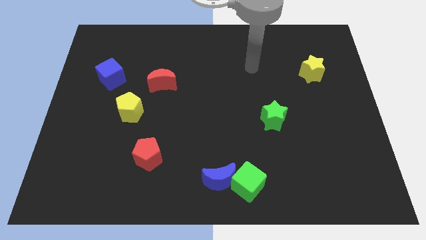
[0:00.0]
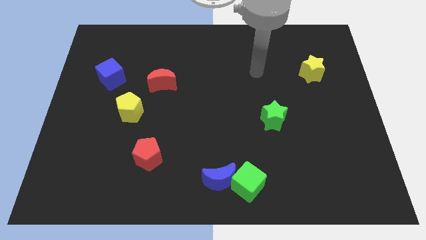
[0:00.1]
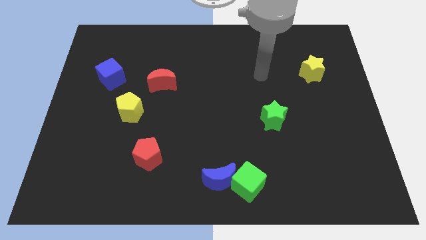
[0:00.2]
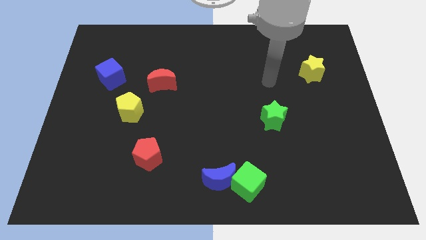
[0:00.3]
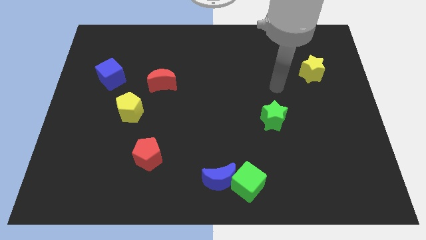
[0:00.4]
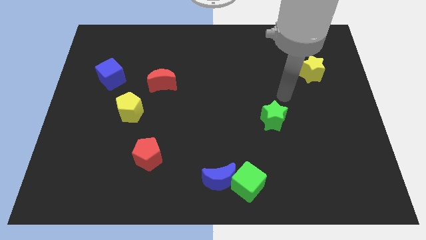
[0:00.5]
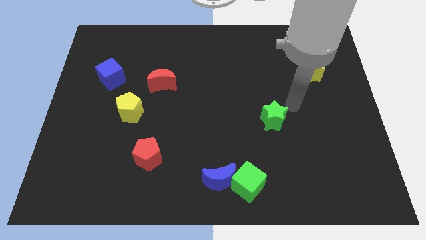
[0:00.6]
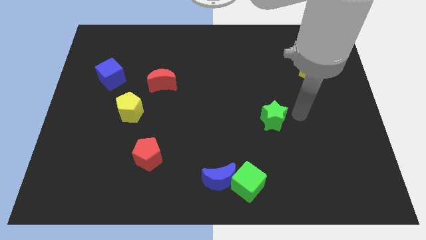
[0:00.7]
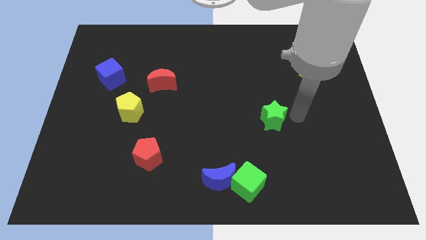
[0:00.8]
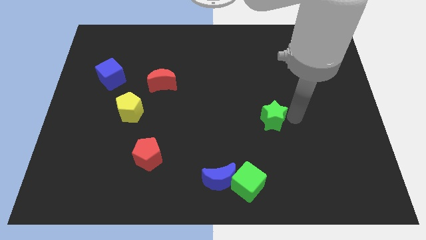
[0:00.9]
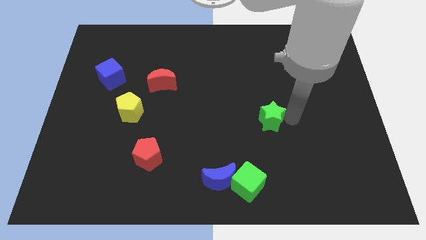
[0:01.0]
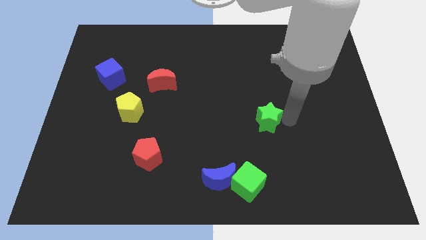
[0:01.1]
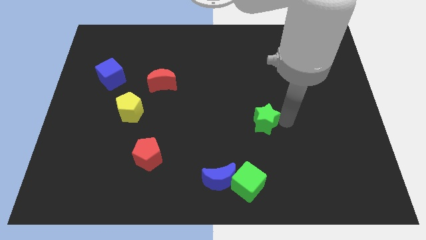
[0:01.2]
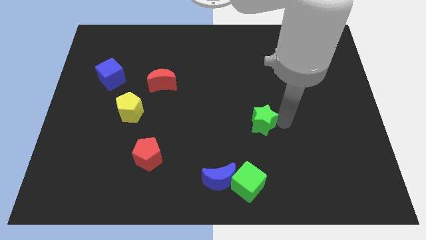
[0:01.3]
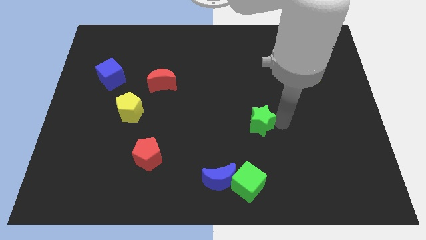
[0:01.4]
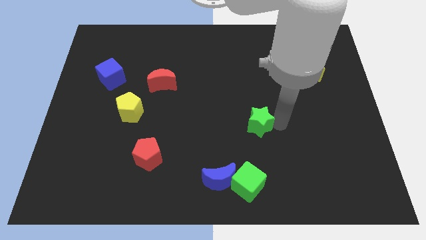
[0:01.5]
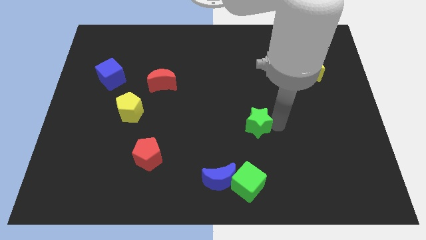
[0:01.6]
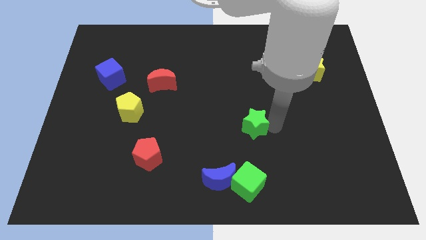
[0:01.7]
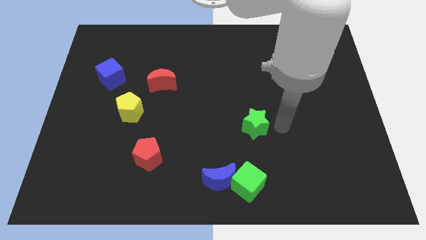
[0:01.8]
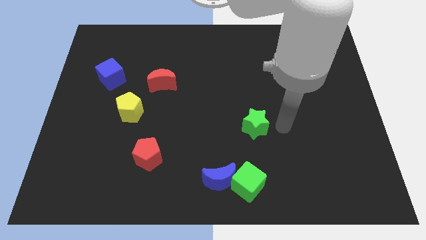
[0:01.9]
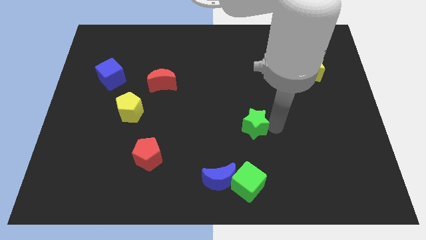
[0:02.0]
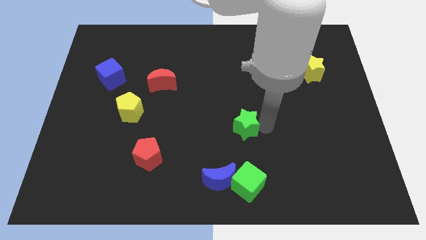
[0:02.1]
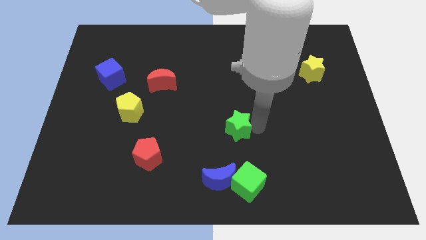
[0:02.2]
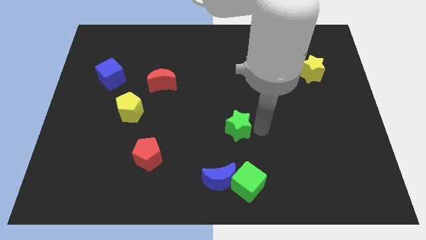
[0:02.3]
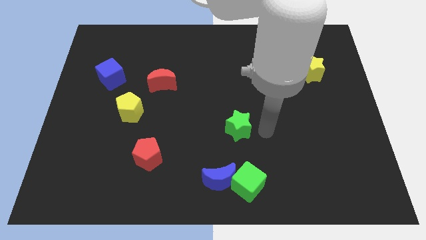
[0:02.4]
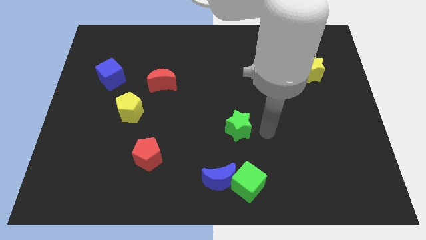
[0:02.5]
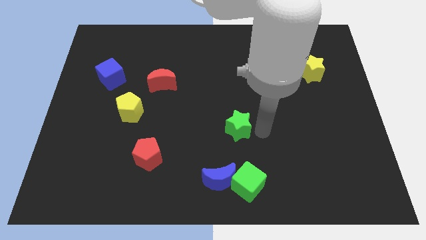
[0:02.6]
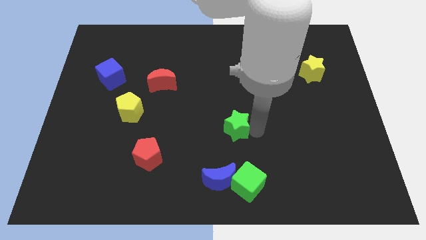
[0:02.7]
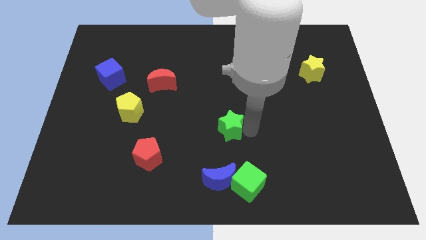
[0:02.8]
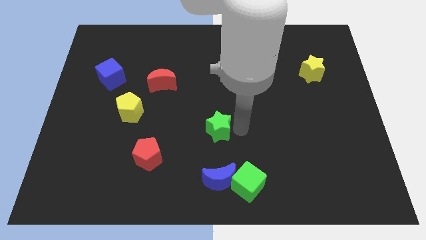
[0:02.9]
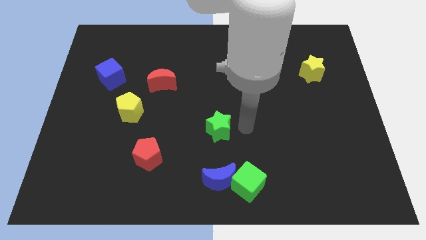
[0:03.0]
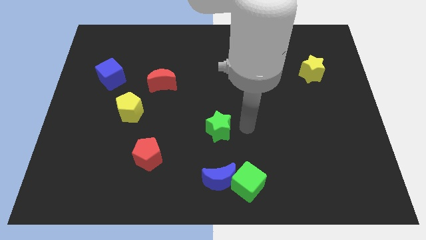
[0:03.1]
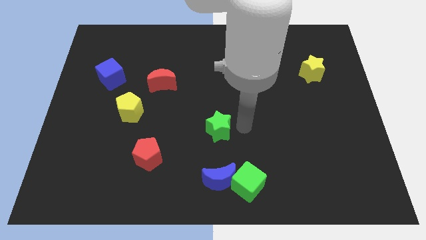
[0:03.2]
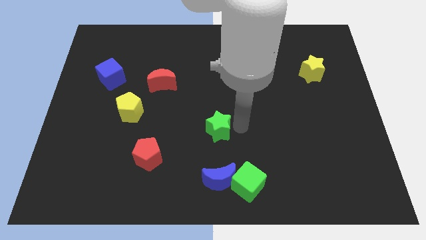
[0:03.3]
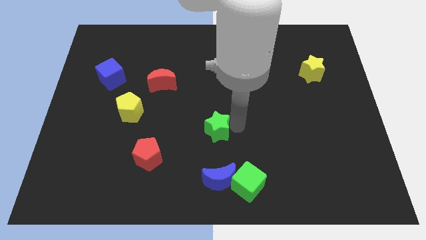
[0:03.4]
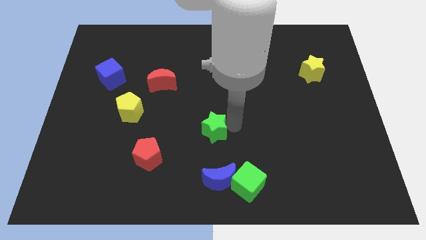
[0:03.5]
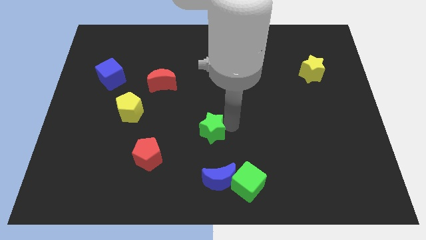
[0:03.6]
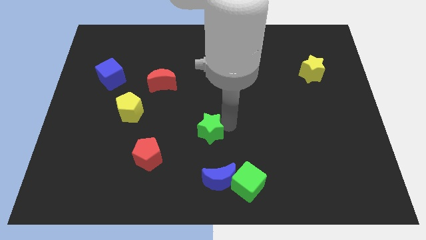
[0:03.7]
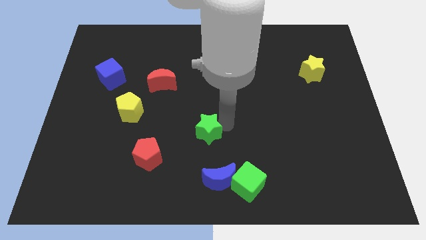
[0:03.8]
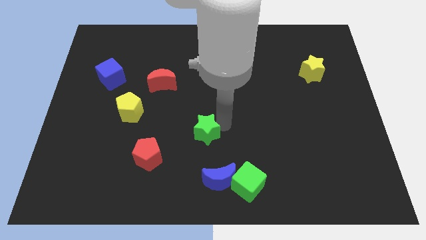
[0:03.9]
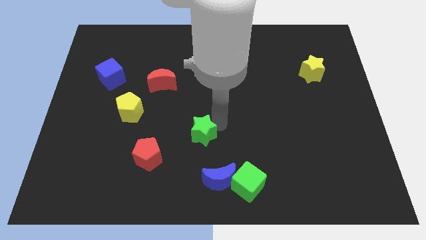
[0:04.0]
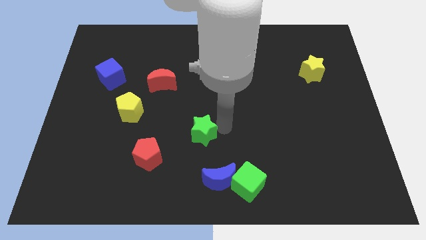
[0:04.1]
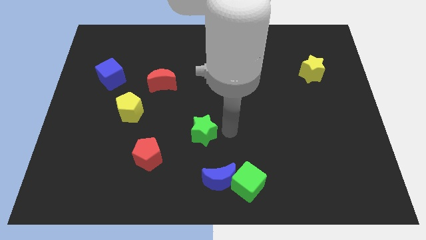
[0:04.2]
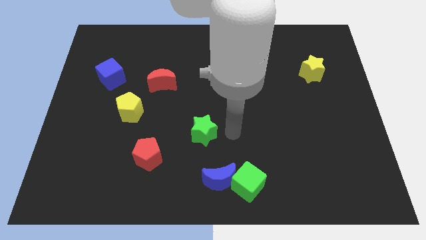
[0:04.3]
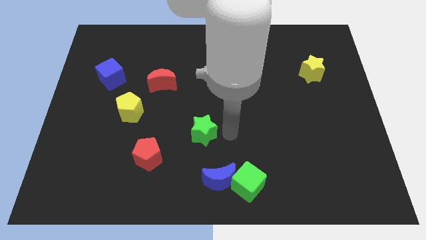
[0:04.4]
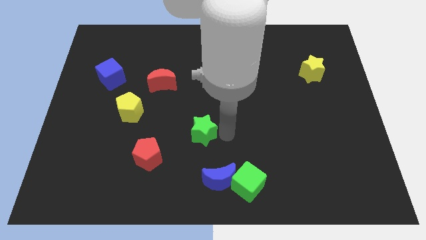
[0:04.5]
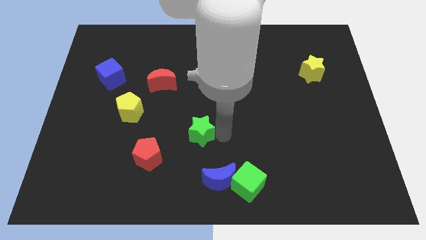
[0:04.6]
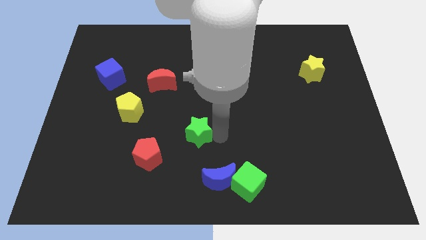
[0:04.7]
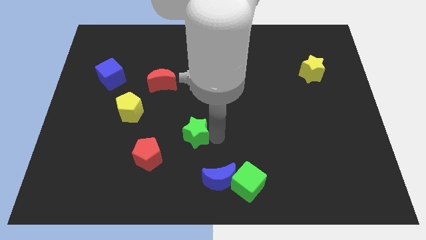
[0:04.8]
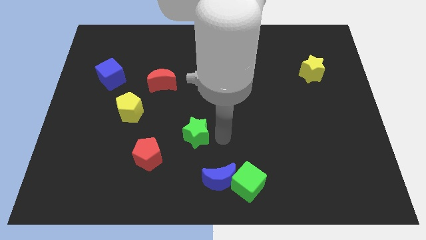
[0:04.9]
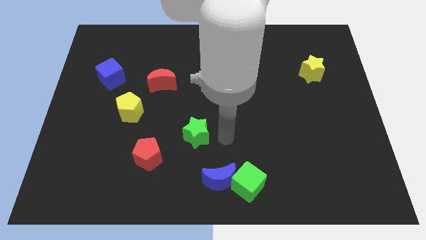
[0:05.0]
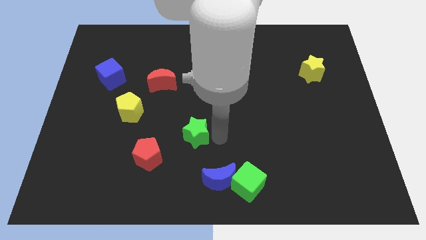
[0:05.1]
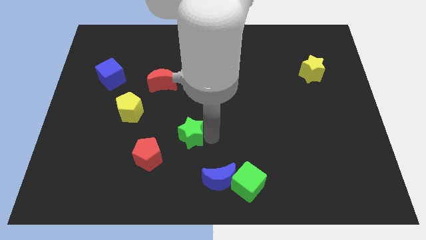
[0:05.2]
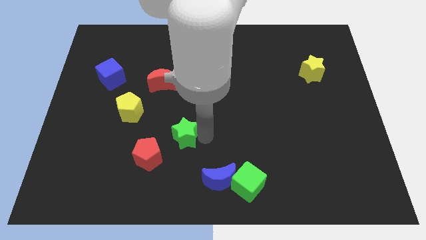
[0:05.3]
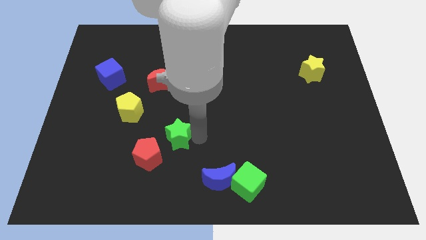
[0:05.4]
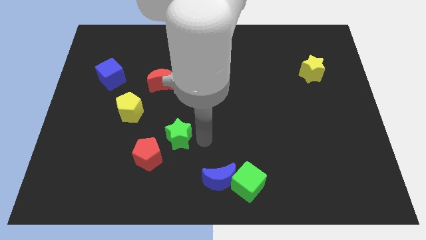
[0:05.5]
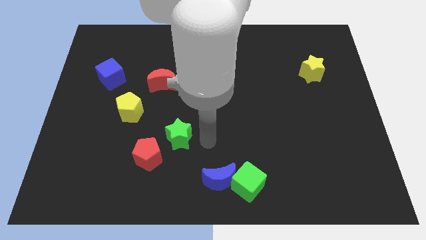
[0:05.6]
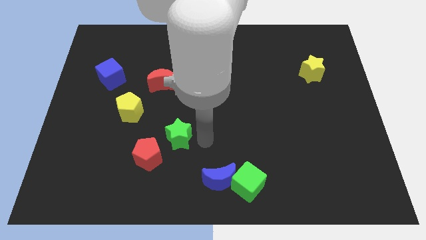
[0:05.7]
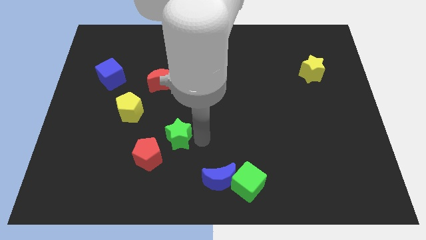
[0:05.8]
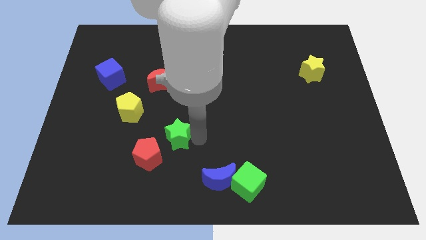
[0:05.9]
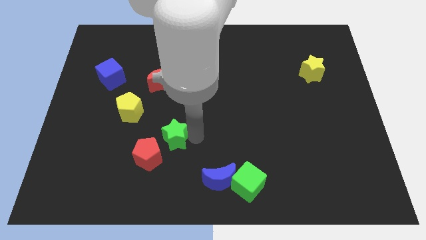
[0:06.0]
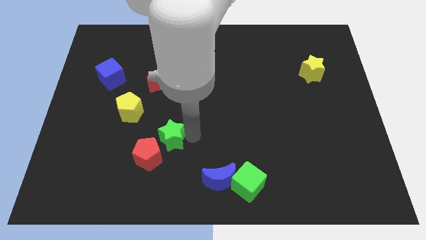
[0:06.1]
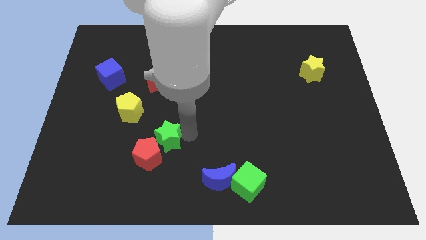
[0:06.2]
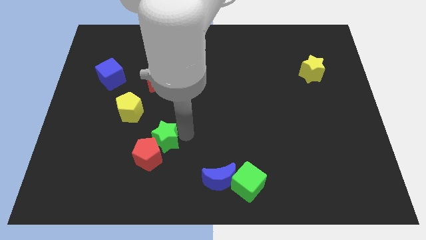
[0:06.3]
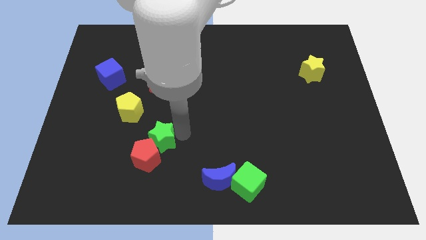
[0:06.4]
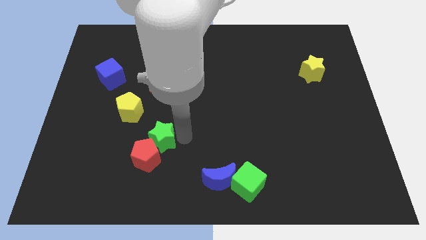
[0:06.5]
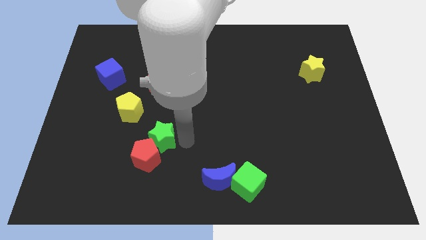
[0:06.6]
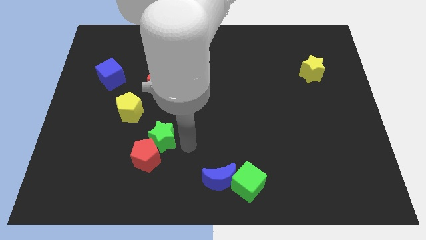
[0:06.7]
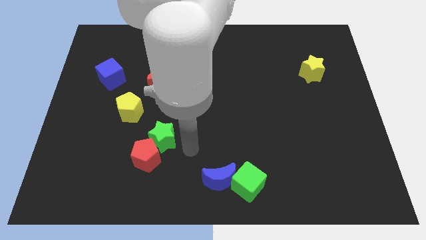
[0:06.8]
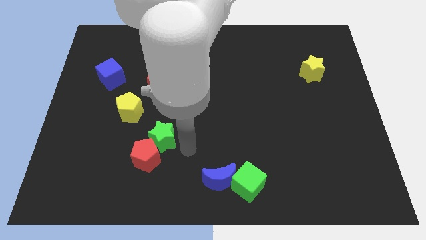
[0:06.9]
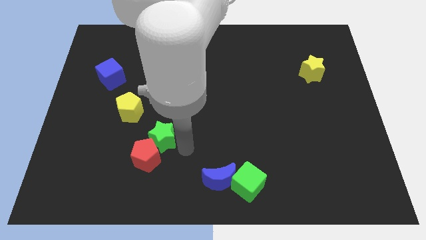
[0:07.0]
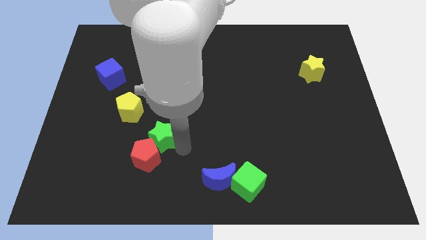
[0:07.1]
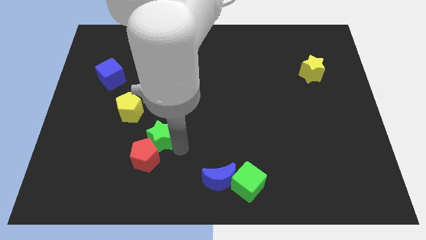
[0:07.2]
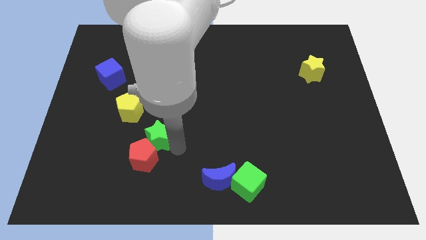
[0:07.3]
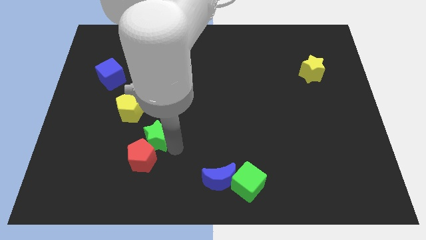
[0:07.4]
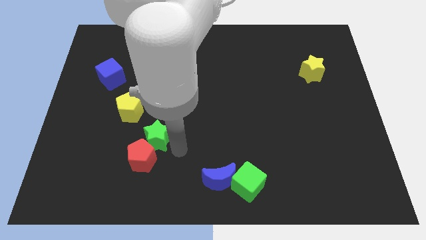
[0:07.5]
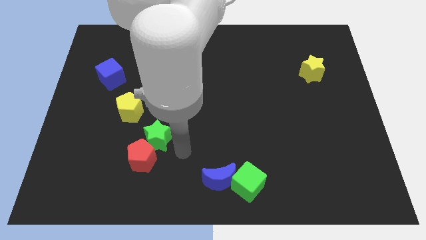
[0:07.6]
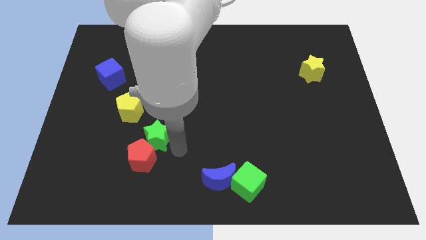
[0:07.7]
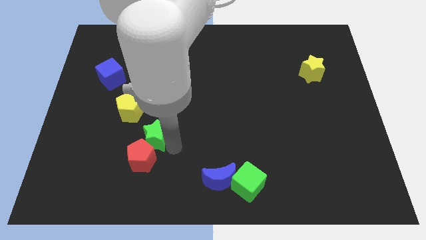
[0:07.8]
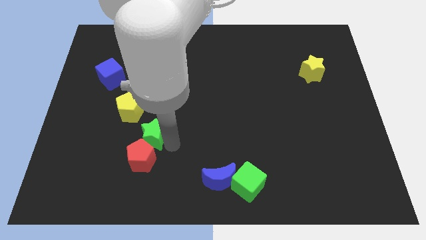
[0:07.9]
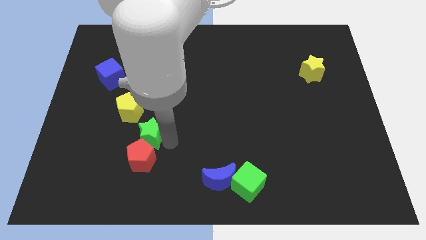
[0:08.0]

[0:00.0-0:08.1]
push the green star to the top left side of the red pentagon
